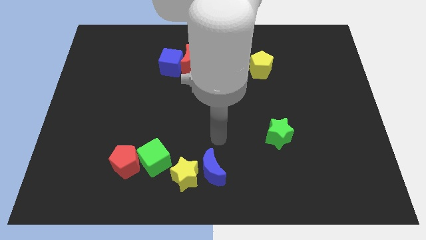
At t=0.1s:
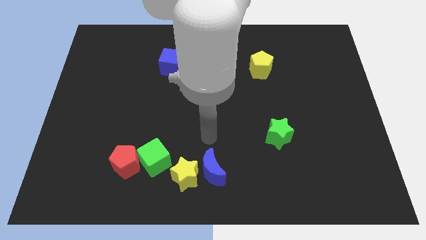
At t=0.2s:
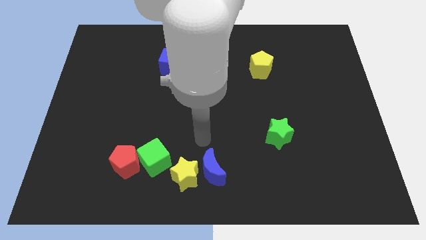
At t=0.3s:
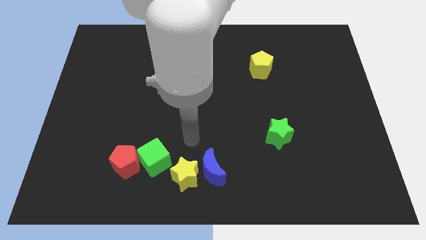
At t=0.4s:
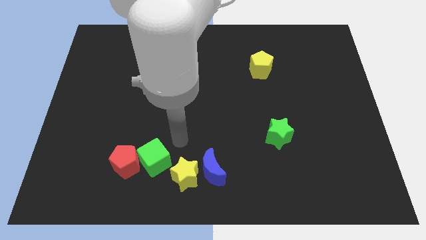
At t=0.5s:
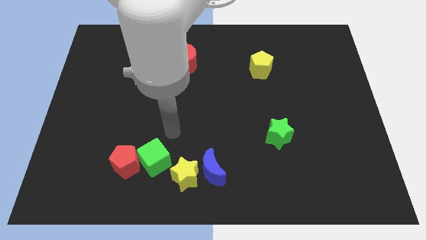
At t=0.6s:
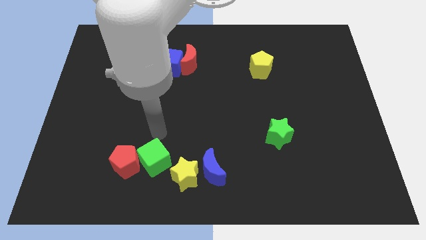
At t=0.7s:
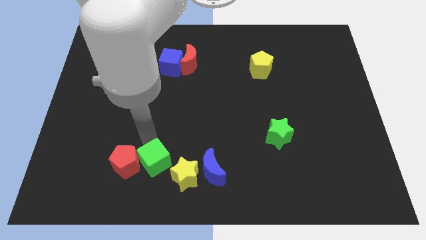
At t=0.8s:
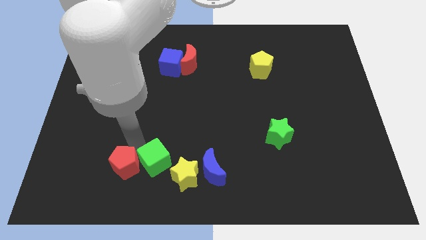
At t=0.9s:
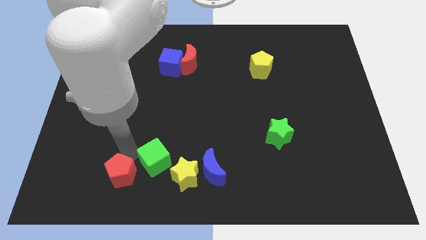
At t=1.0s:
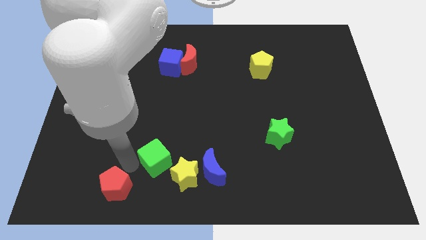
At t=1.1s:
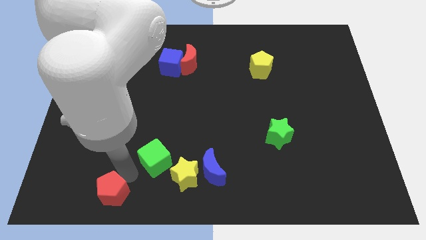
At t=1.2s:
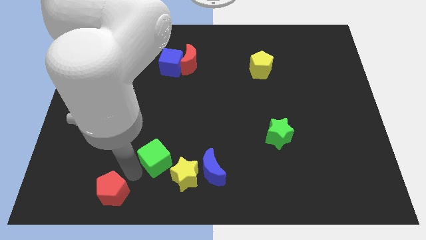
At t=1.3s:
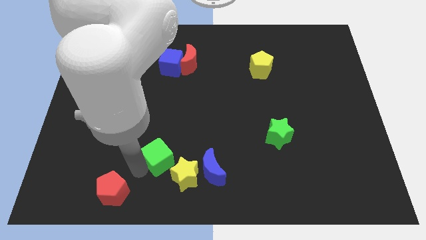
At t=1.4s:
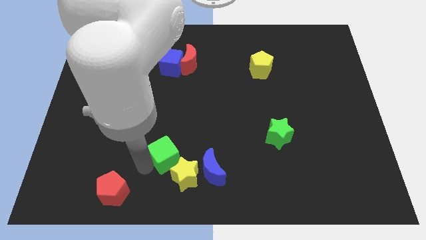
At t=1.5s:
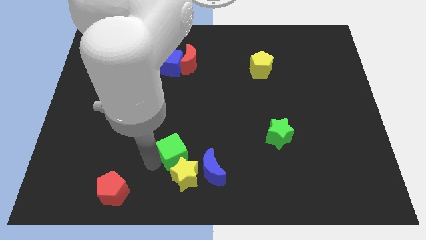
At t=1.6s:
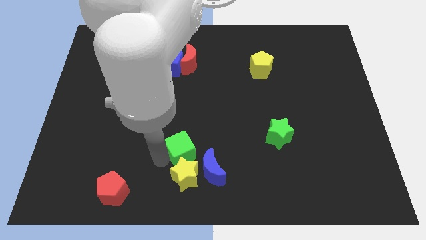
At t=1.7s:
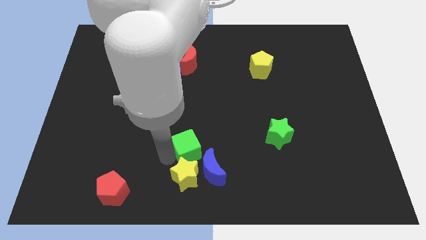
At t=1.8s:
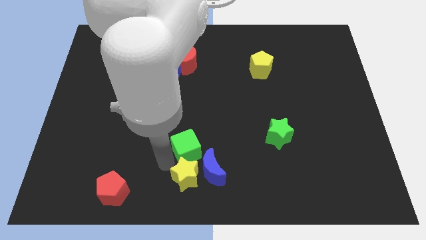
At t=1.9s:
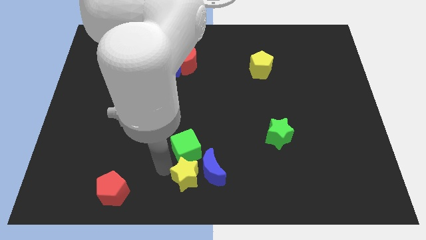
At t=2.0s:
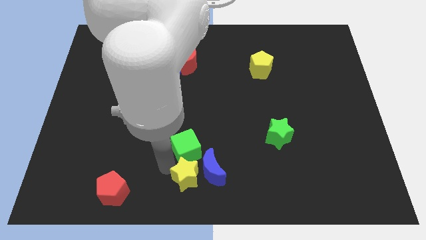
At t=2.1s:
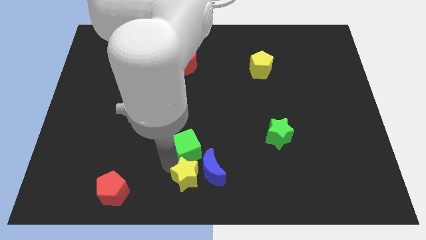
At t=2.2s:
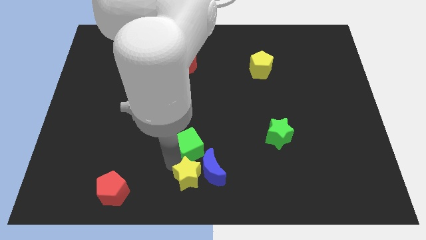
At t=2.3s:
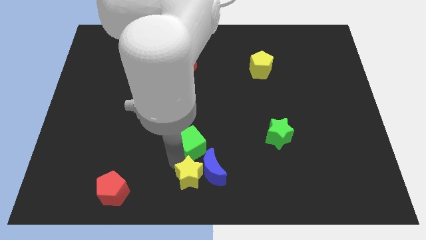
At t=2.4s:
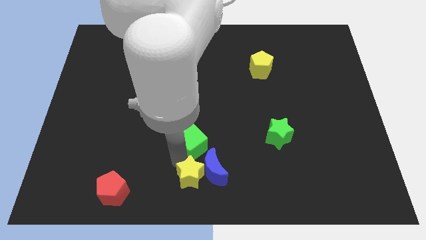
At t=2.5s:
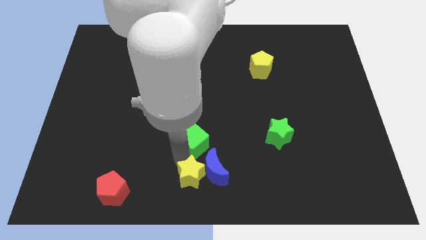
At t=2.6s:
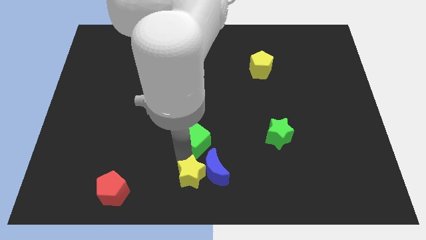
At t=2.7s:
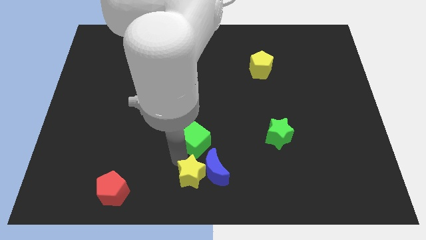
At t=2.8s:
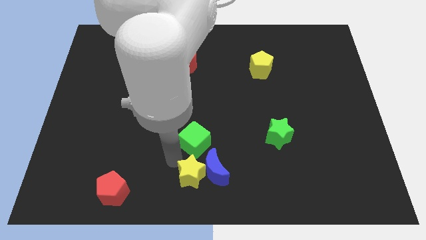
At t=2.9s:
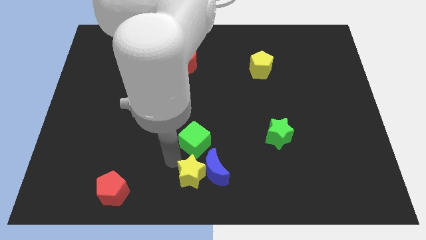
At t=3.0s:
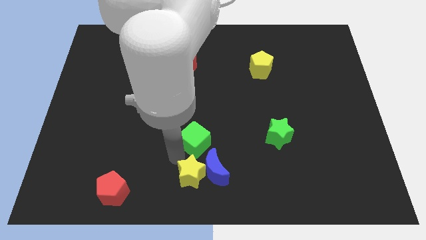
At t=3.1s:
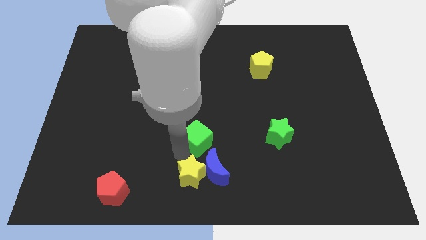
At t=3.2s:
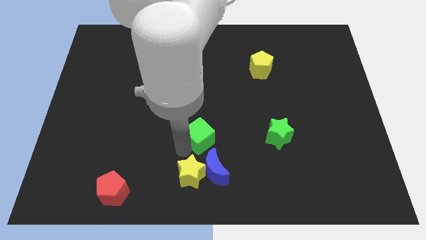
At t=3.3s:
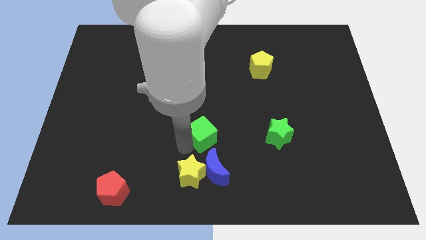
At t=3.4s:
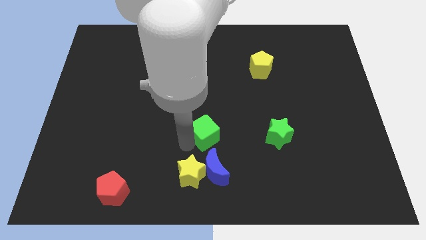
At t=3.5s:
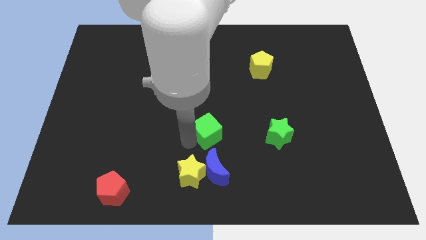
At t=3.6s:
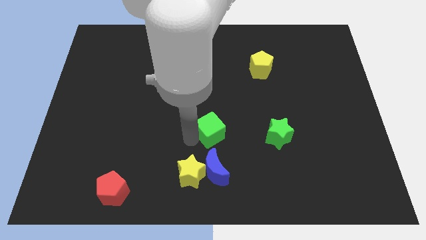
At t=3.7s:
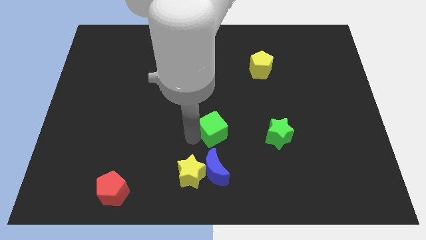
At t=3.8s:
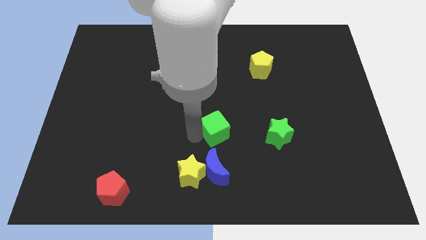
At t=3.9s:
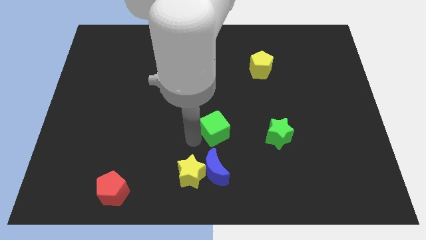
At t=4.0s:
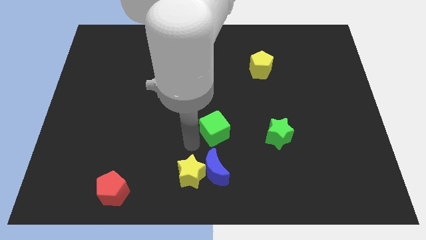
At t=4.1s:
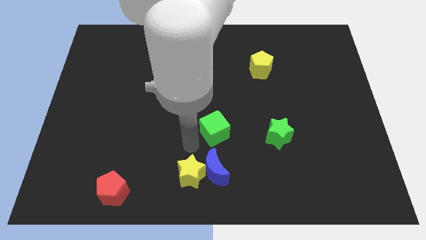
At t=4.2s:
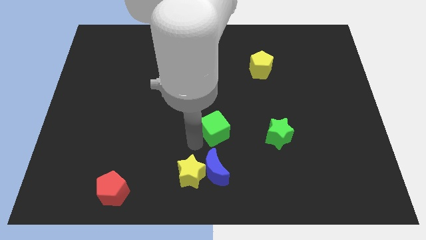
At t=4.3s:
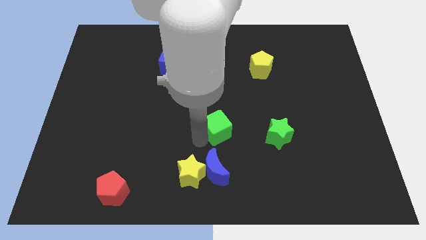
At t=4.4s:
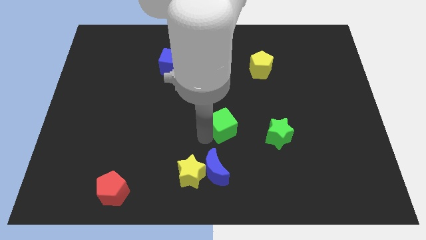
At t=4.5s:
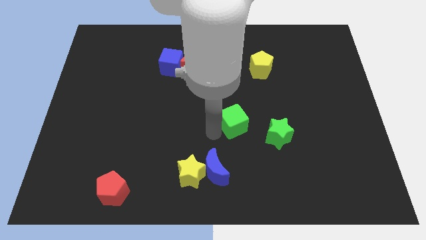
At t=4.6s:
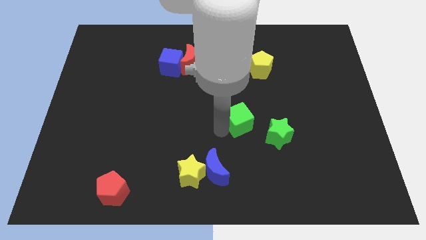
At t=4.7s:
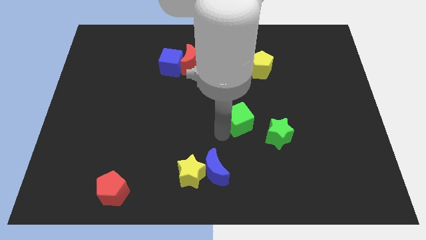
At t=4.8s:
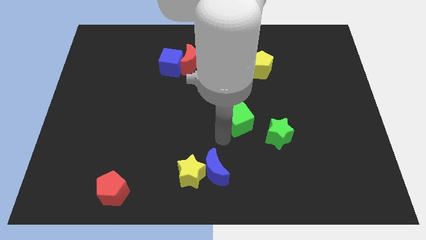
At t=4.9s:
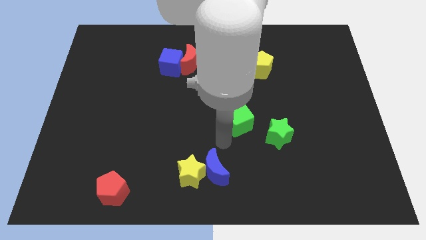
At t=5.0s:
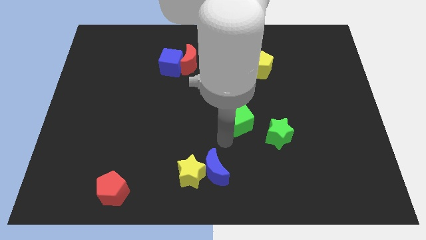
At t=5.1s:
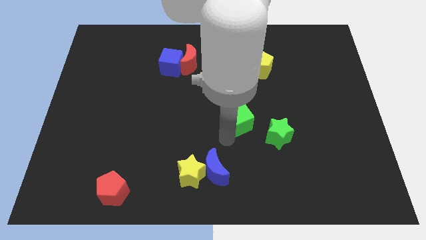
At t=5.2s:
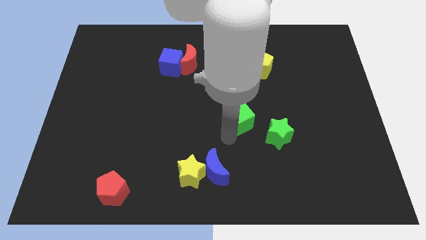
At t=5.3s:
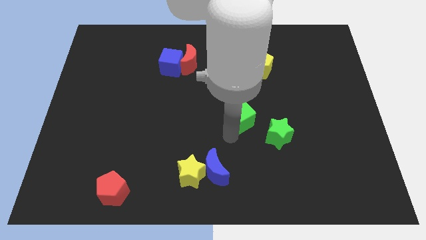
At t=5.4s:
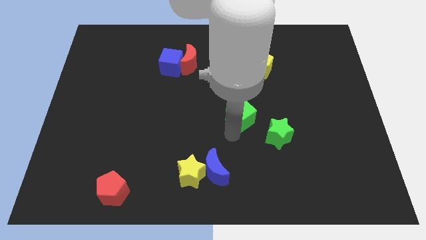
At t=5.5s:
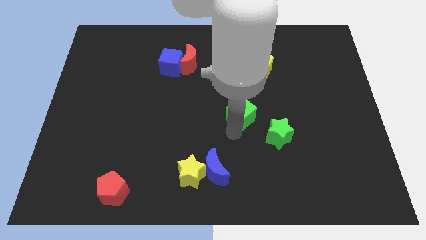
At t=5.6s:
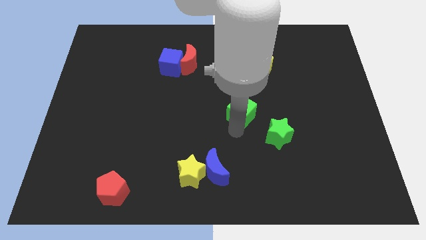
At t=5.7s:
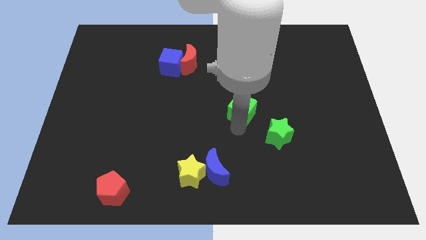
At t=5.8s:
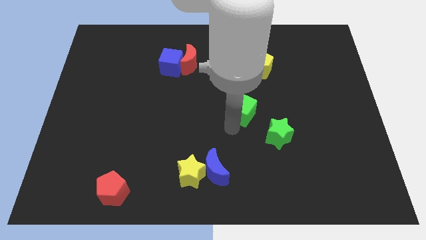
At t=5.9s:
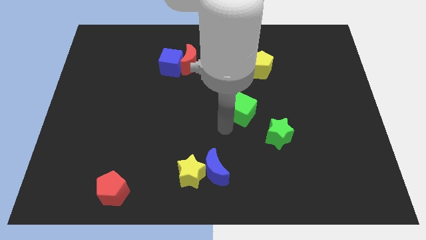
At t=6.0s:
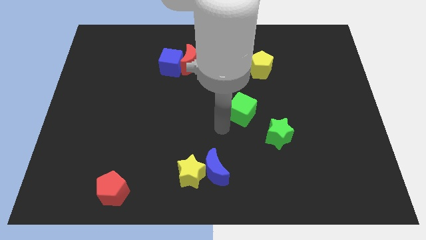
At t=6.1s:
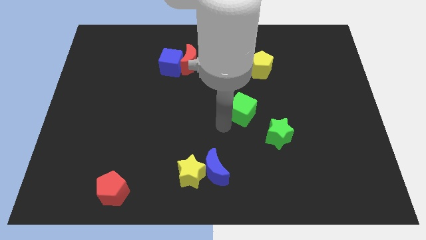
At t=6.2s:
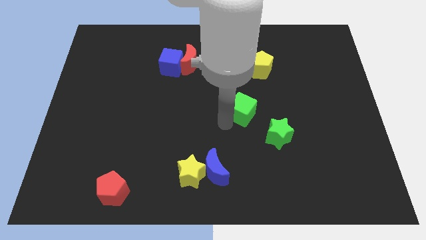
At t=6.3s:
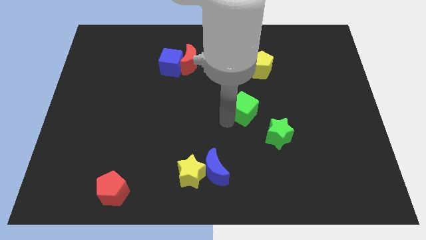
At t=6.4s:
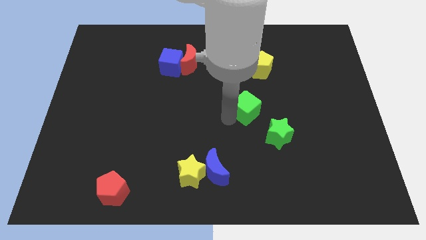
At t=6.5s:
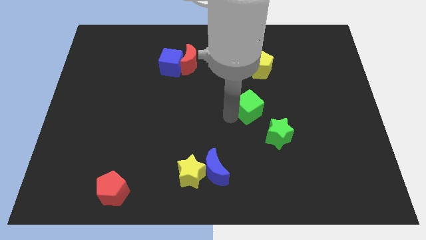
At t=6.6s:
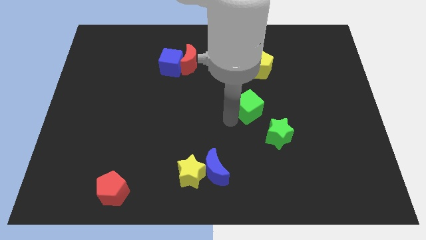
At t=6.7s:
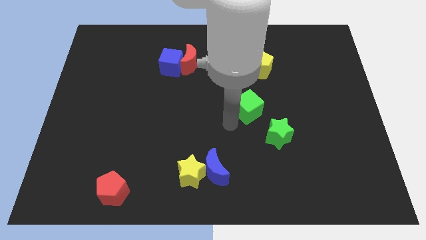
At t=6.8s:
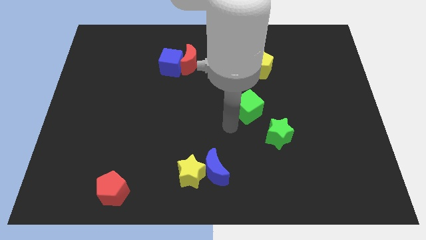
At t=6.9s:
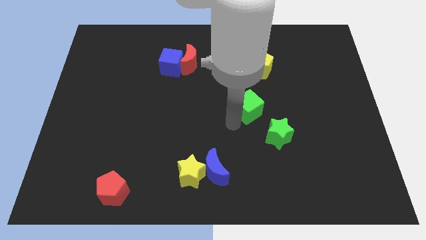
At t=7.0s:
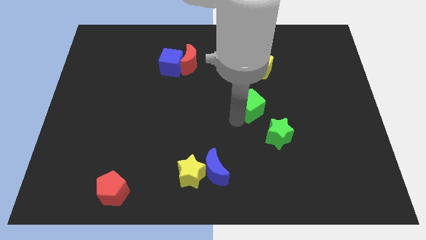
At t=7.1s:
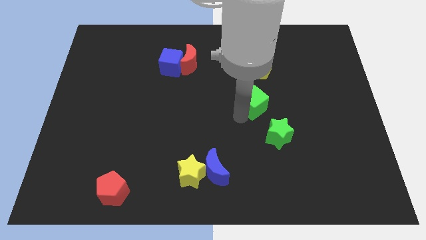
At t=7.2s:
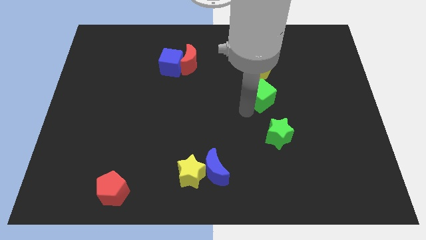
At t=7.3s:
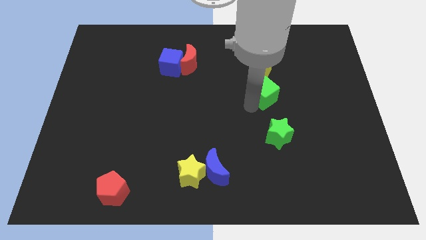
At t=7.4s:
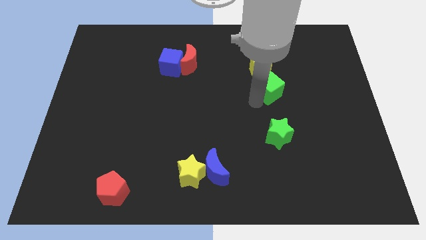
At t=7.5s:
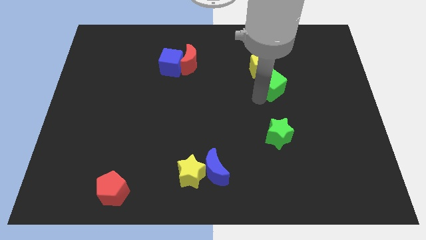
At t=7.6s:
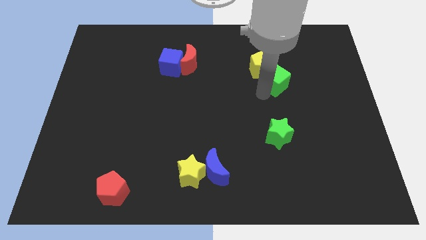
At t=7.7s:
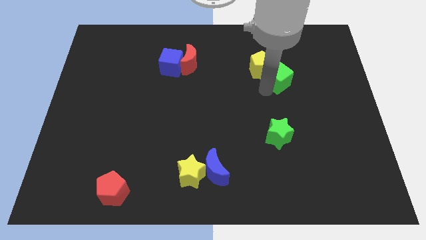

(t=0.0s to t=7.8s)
slide the green cube just right of the yellow pentagon
